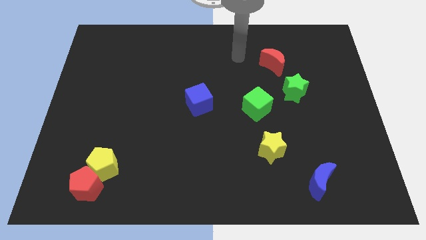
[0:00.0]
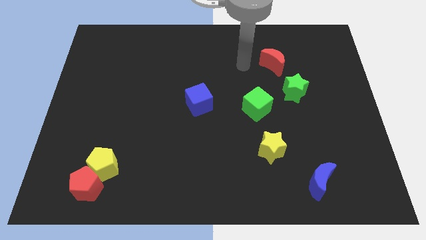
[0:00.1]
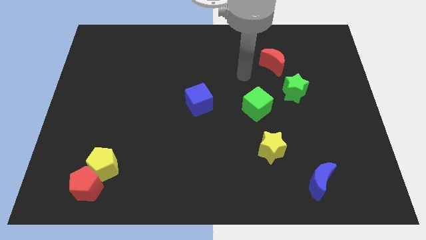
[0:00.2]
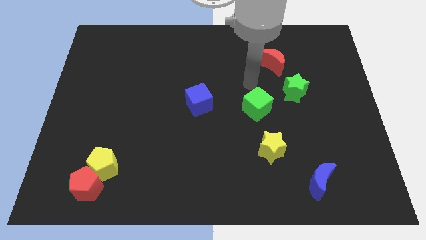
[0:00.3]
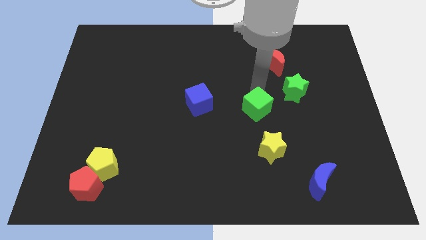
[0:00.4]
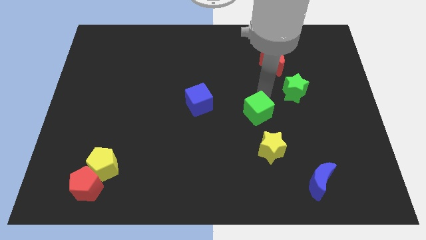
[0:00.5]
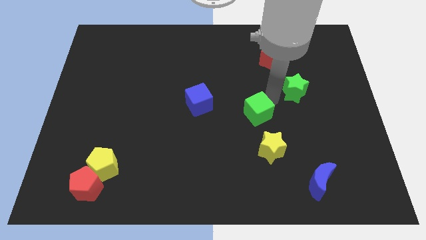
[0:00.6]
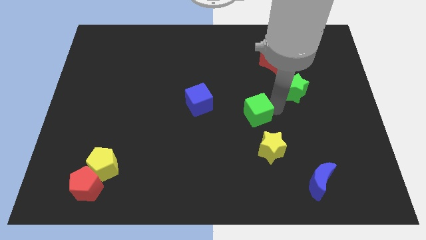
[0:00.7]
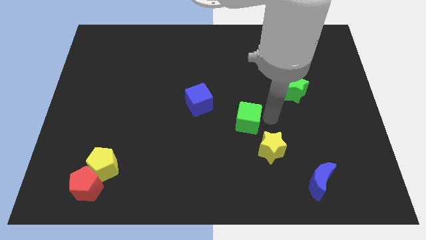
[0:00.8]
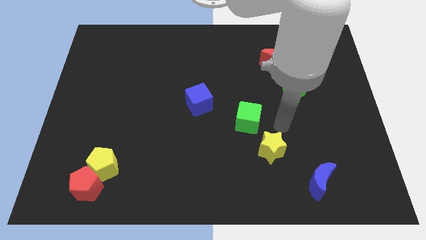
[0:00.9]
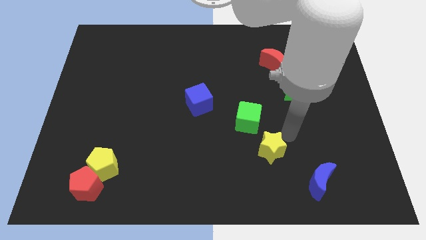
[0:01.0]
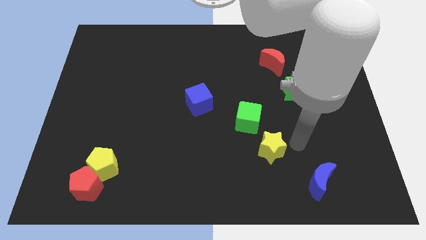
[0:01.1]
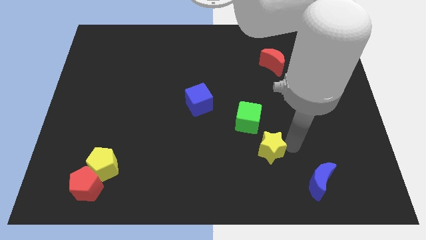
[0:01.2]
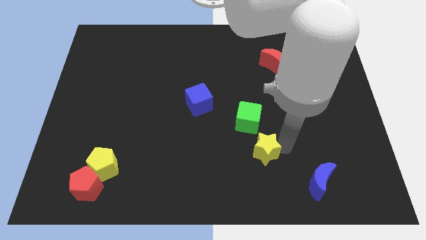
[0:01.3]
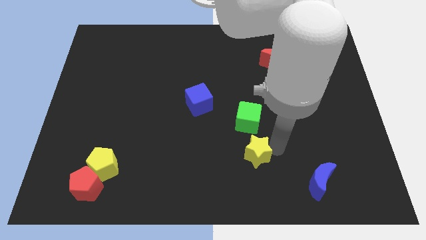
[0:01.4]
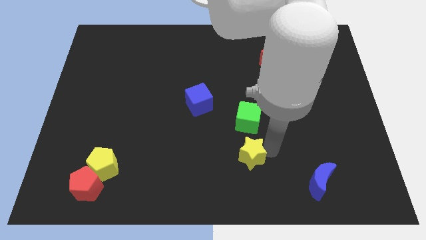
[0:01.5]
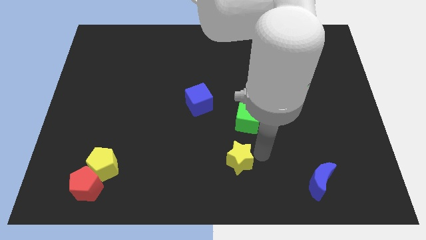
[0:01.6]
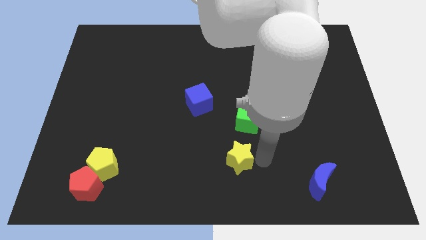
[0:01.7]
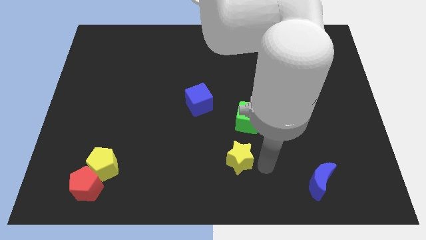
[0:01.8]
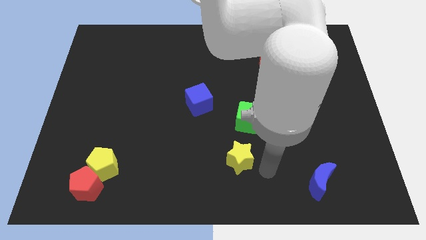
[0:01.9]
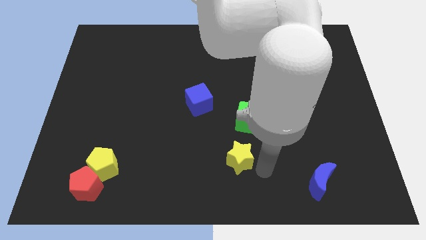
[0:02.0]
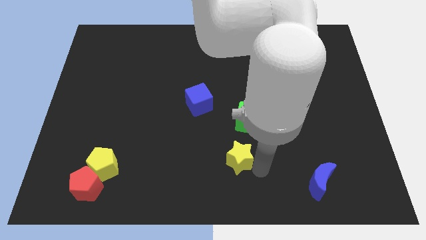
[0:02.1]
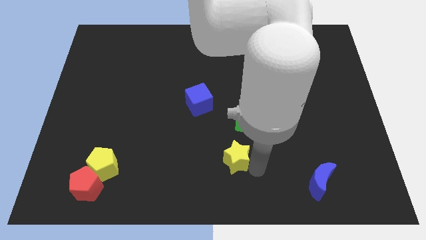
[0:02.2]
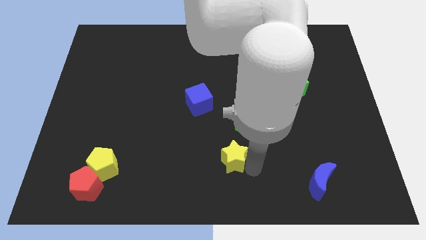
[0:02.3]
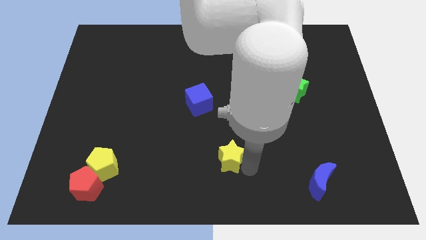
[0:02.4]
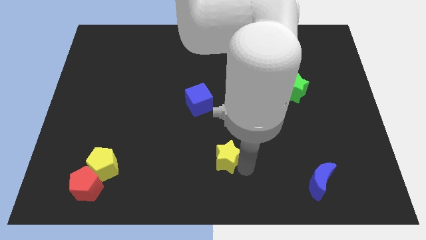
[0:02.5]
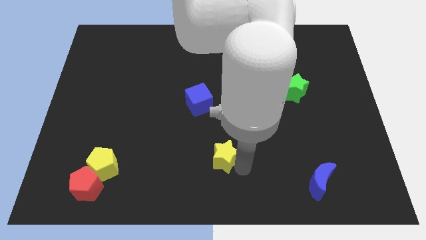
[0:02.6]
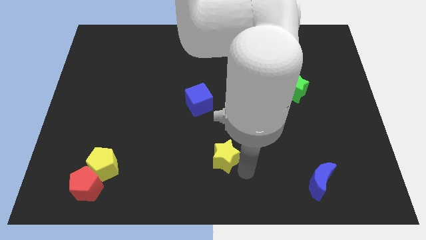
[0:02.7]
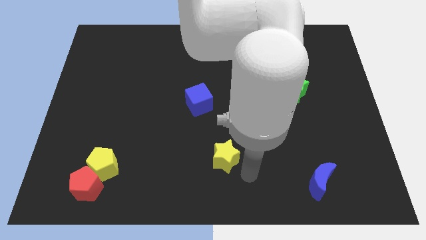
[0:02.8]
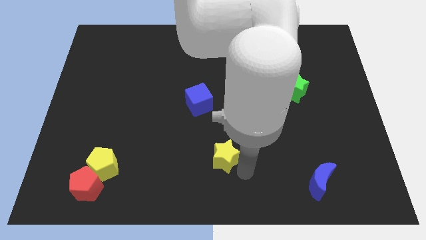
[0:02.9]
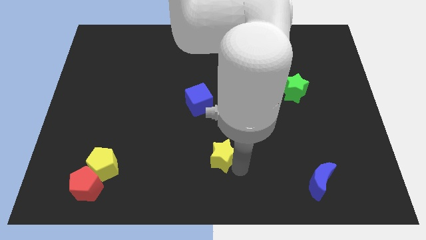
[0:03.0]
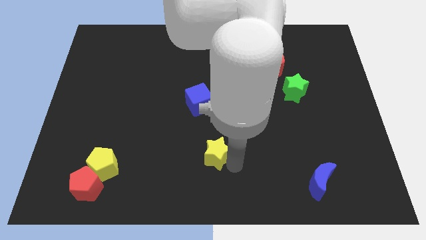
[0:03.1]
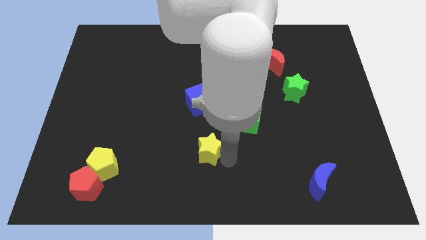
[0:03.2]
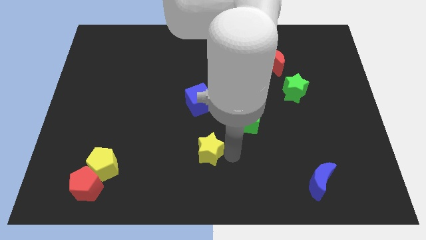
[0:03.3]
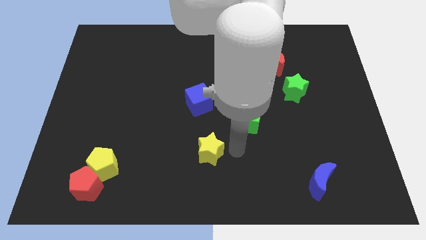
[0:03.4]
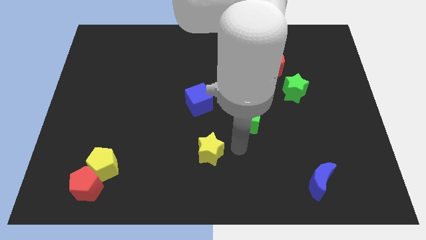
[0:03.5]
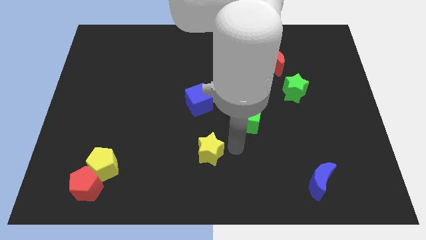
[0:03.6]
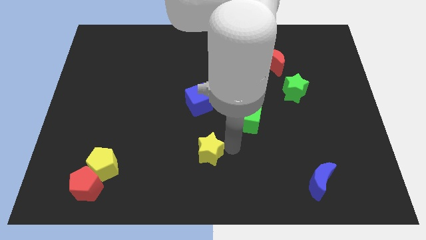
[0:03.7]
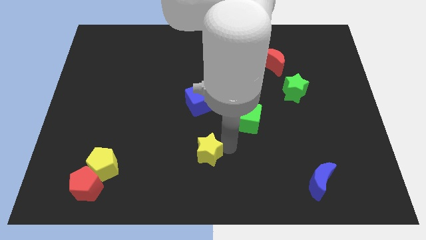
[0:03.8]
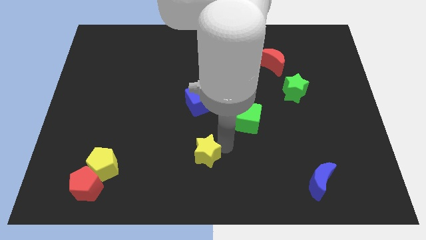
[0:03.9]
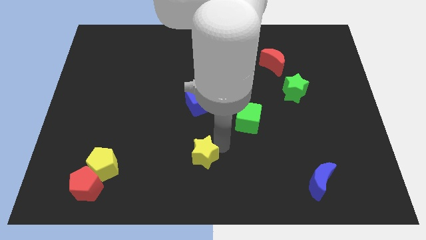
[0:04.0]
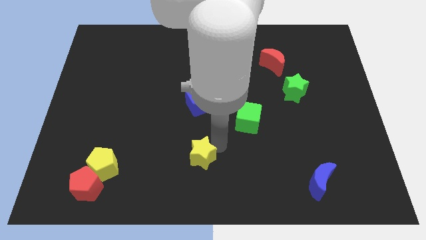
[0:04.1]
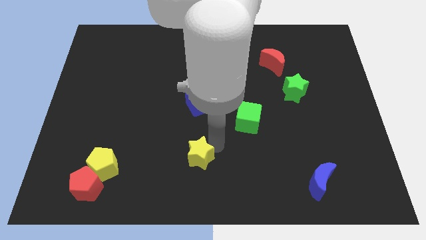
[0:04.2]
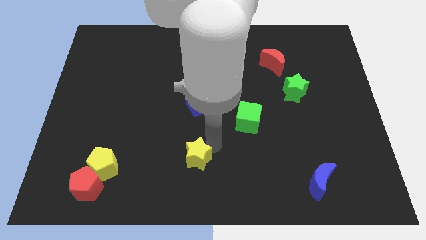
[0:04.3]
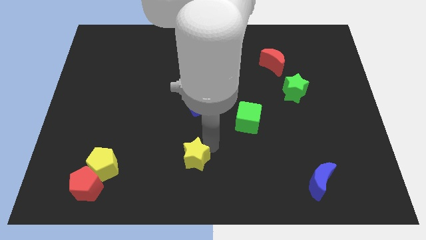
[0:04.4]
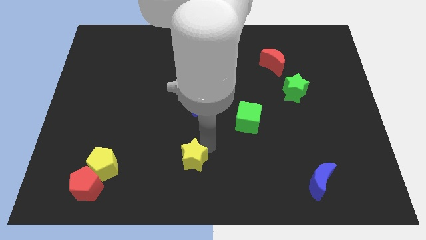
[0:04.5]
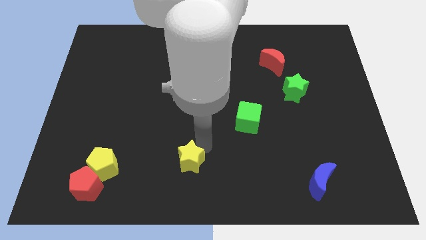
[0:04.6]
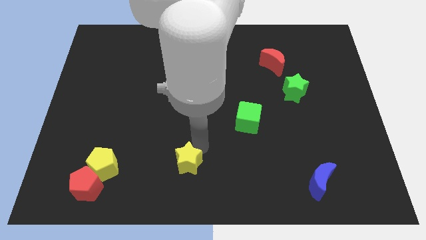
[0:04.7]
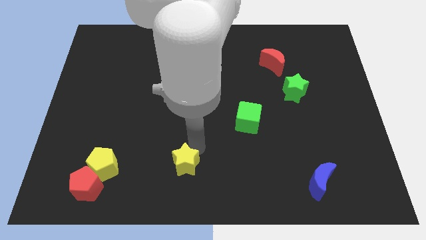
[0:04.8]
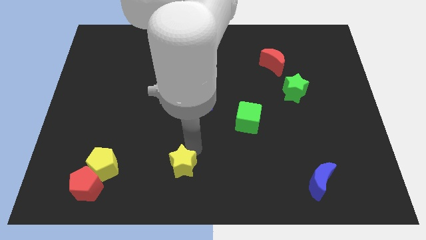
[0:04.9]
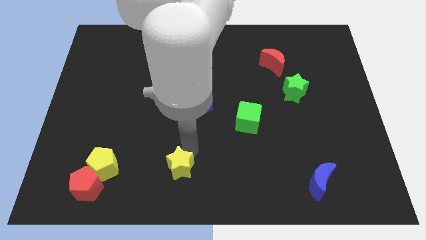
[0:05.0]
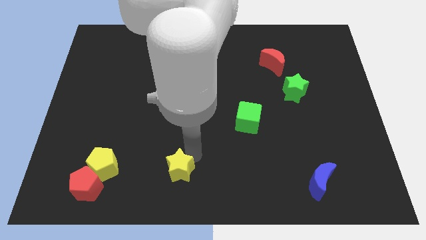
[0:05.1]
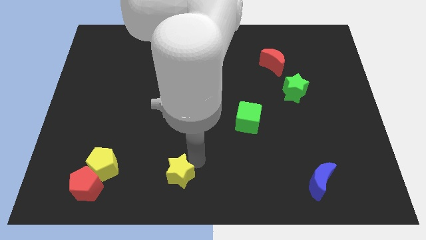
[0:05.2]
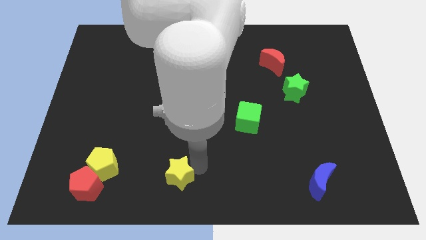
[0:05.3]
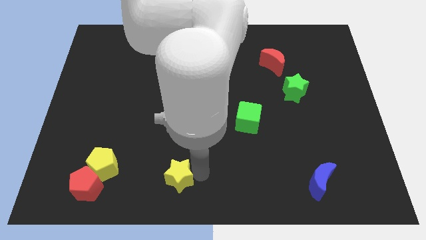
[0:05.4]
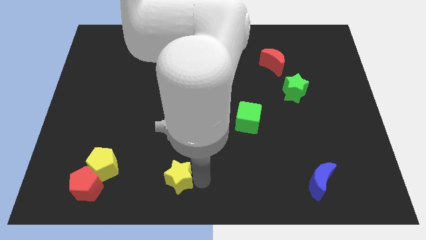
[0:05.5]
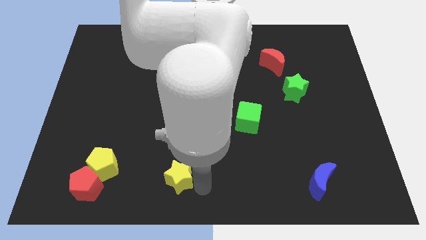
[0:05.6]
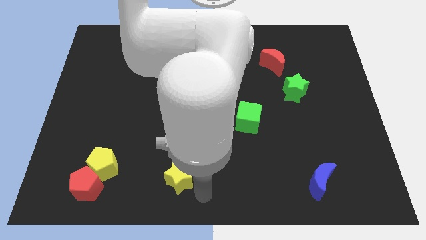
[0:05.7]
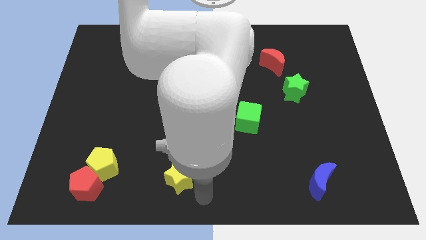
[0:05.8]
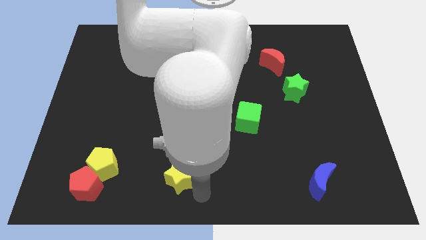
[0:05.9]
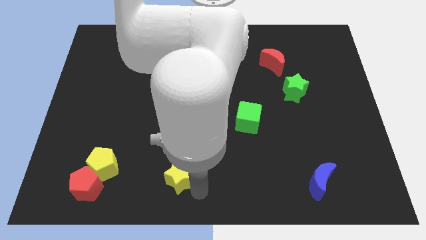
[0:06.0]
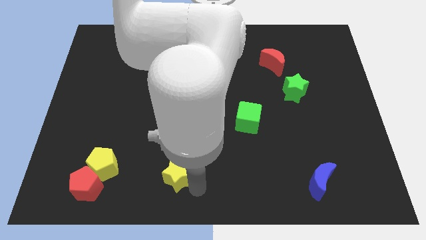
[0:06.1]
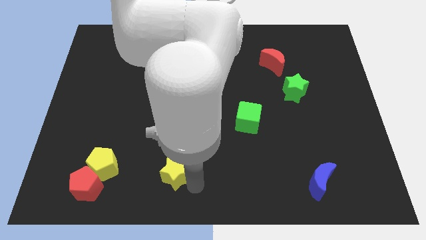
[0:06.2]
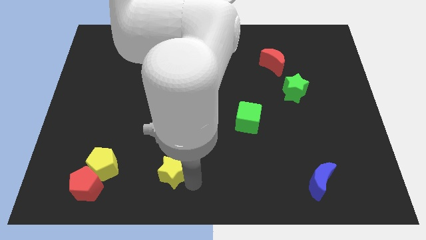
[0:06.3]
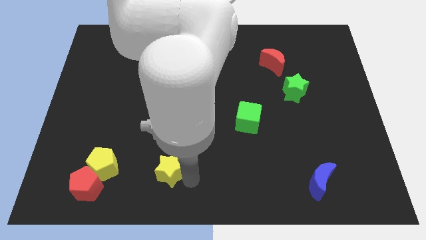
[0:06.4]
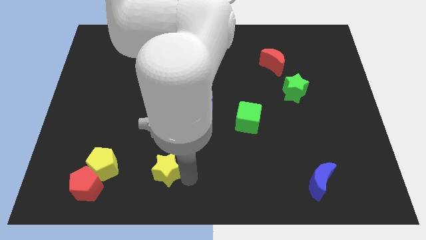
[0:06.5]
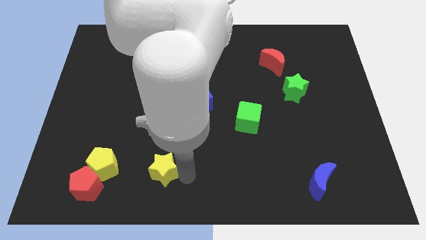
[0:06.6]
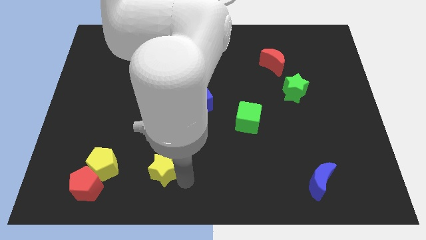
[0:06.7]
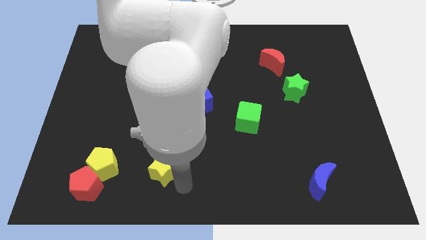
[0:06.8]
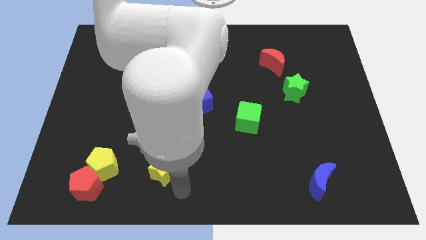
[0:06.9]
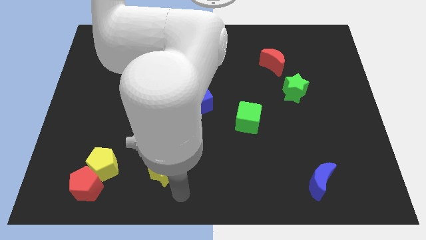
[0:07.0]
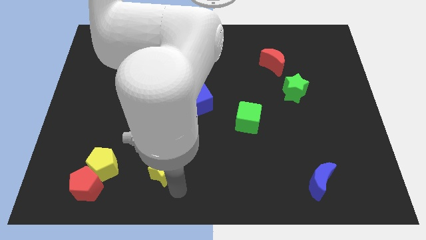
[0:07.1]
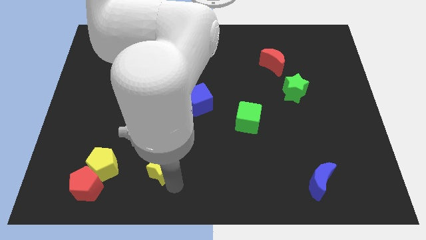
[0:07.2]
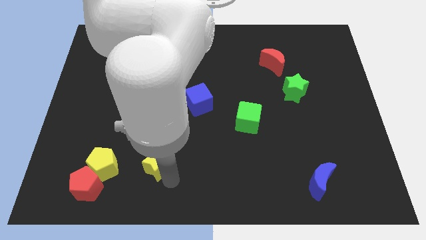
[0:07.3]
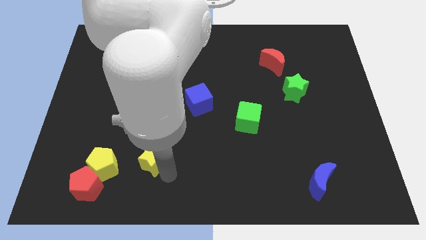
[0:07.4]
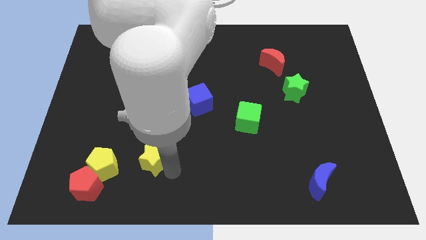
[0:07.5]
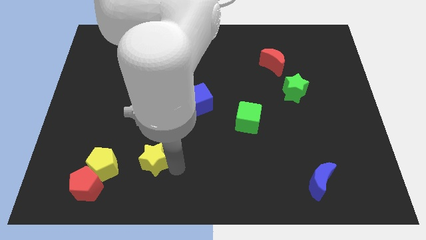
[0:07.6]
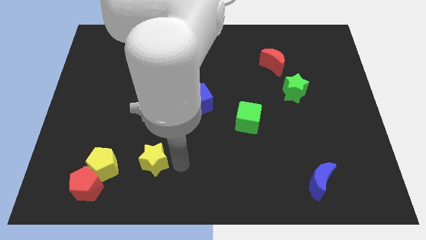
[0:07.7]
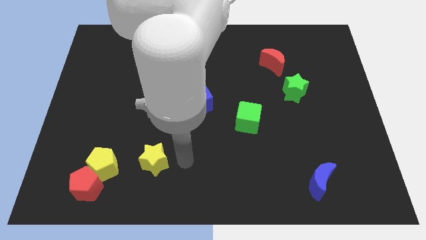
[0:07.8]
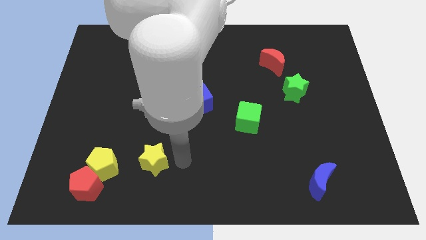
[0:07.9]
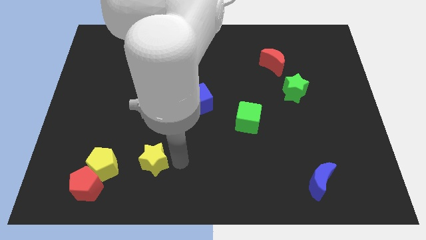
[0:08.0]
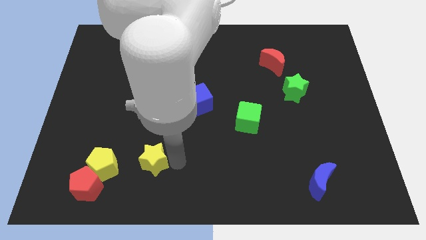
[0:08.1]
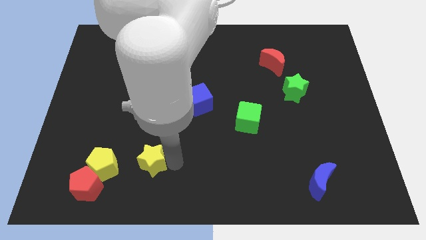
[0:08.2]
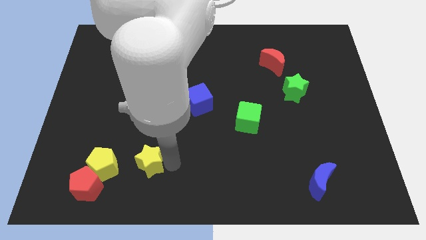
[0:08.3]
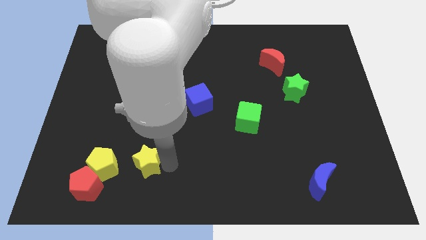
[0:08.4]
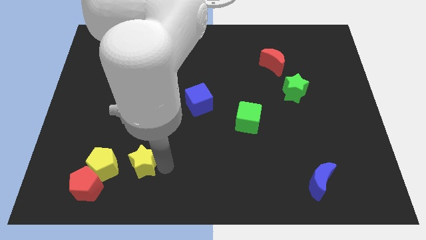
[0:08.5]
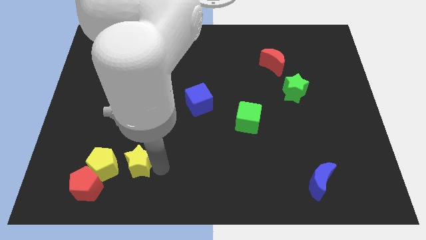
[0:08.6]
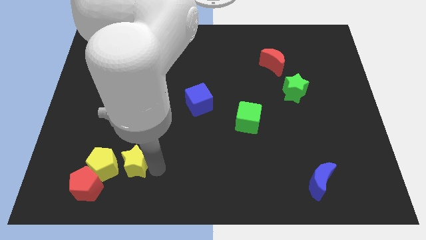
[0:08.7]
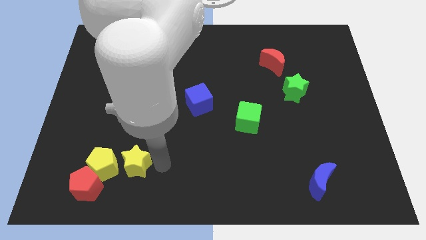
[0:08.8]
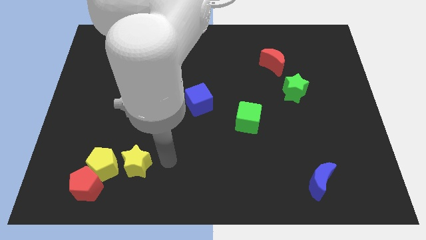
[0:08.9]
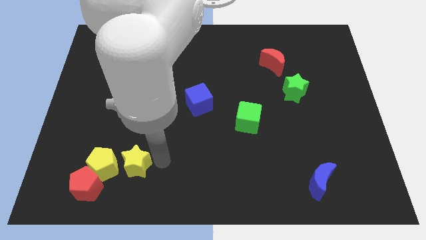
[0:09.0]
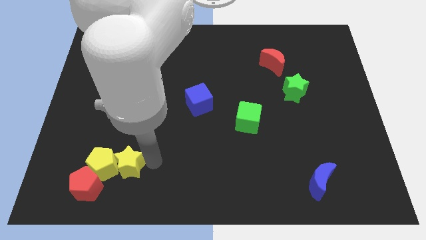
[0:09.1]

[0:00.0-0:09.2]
slide the yellow star to the yellow pentagon
